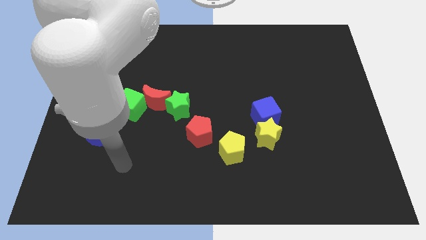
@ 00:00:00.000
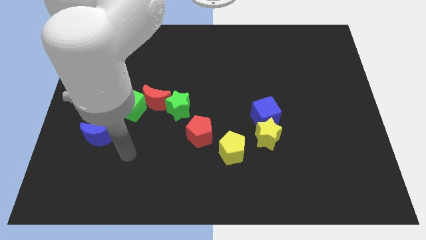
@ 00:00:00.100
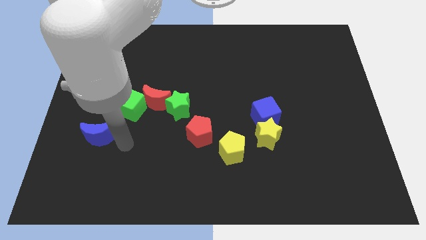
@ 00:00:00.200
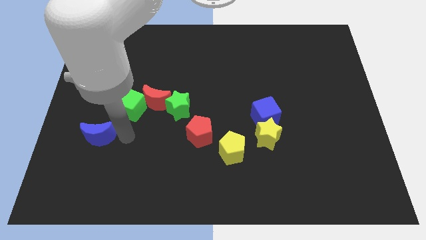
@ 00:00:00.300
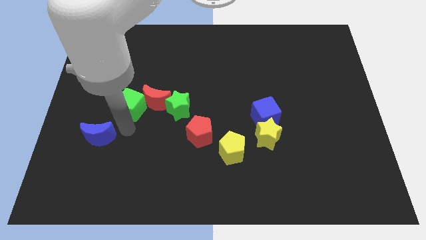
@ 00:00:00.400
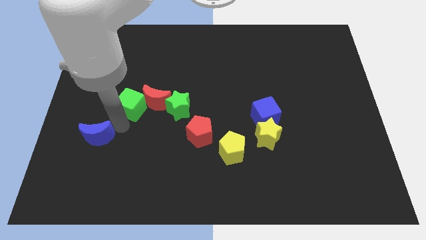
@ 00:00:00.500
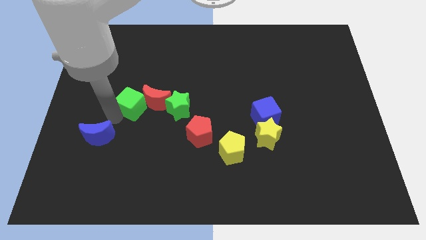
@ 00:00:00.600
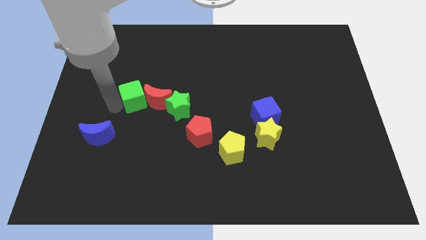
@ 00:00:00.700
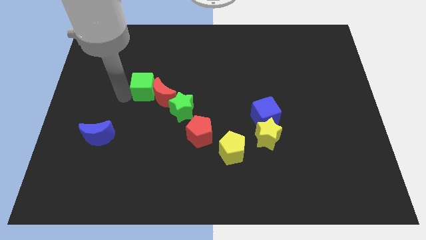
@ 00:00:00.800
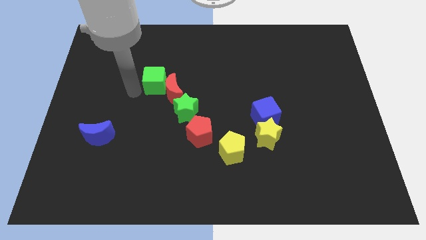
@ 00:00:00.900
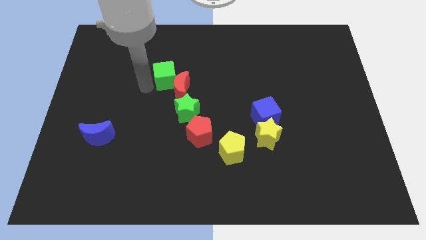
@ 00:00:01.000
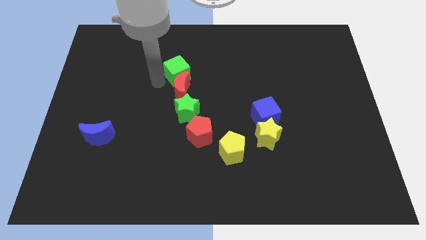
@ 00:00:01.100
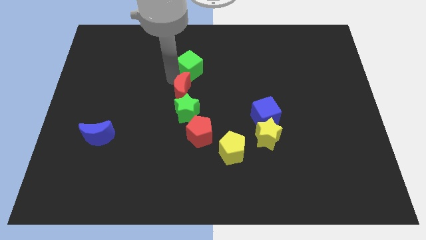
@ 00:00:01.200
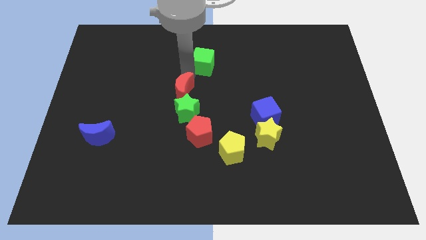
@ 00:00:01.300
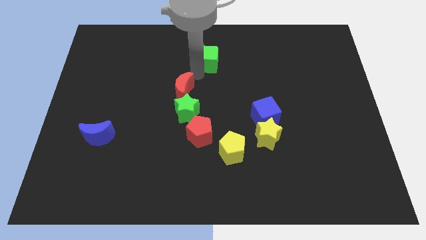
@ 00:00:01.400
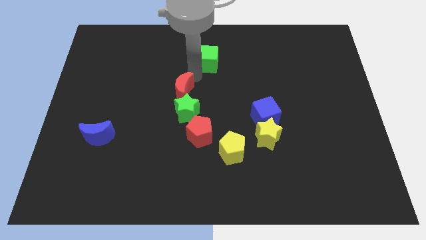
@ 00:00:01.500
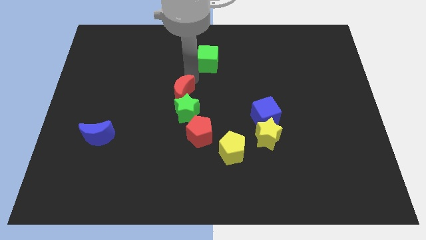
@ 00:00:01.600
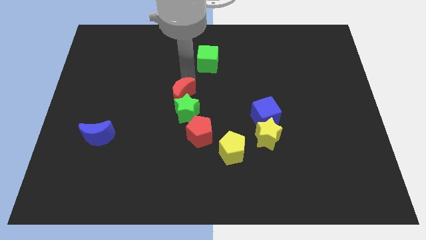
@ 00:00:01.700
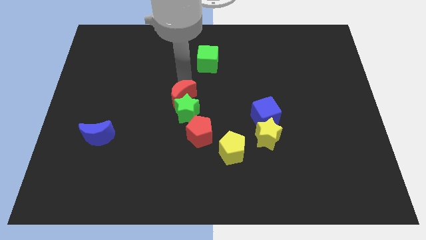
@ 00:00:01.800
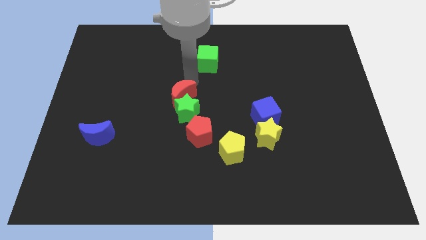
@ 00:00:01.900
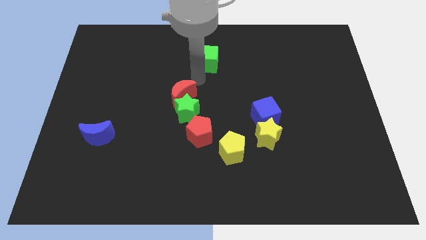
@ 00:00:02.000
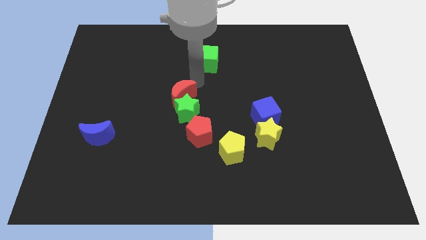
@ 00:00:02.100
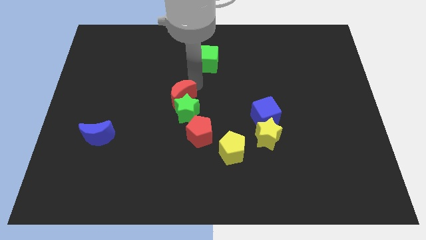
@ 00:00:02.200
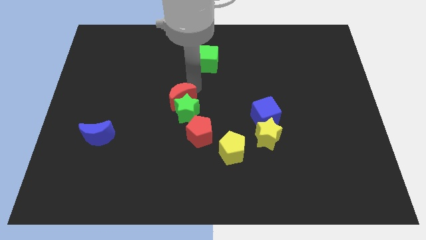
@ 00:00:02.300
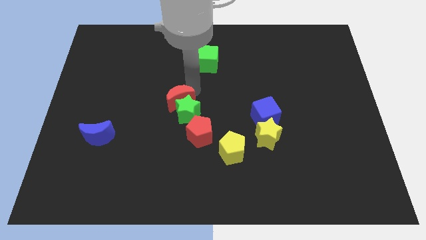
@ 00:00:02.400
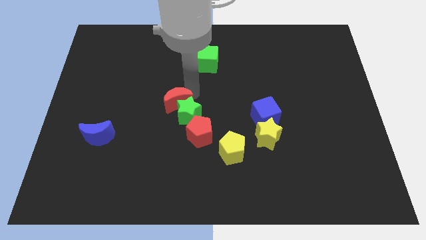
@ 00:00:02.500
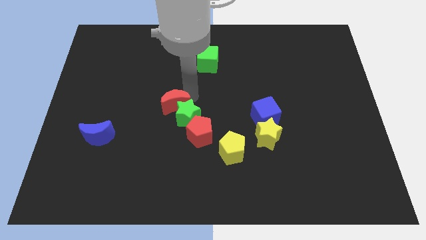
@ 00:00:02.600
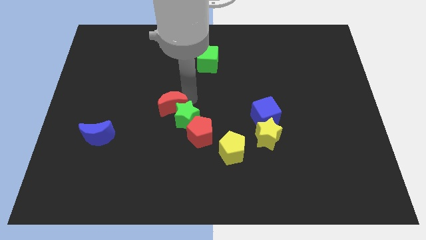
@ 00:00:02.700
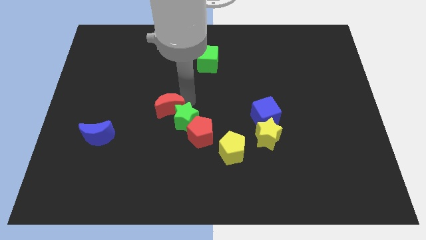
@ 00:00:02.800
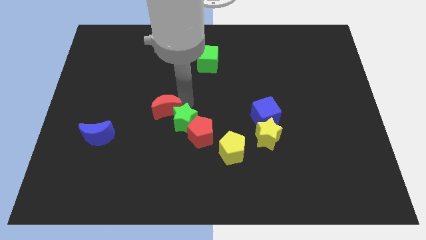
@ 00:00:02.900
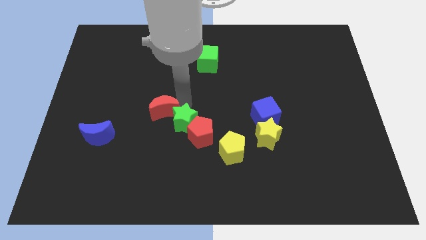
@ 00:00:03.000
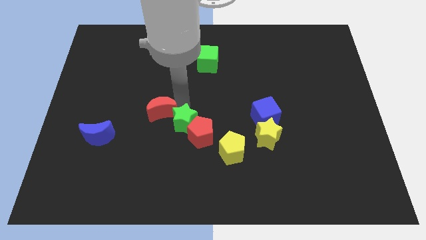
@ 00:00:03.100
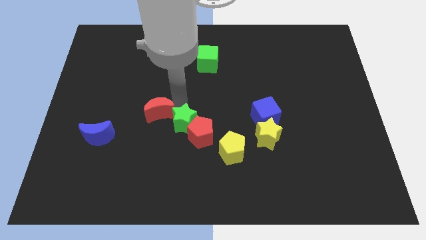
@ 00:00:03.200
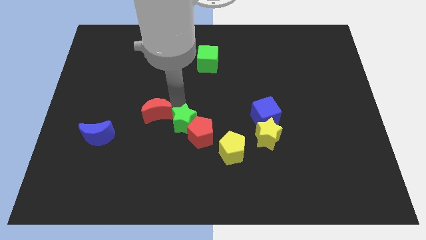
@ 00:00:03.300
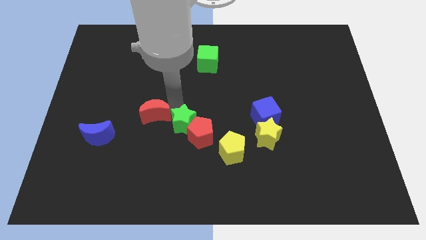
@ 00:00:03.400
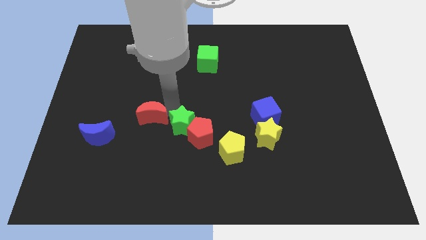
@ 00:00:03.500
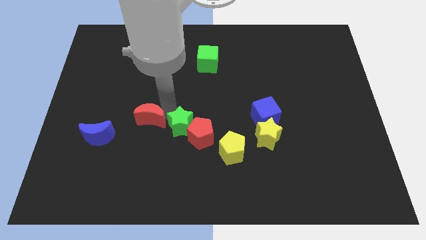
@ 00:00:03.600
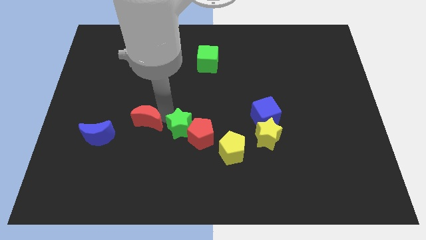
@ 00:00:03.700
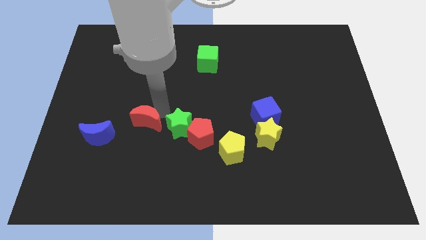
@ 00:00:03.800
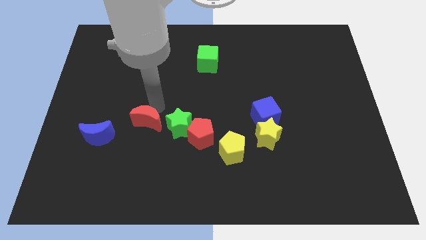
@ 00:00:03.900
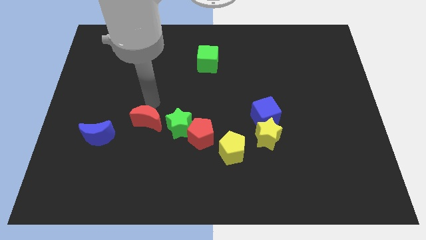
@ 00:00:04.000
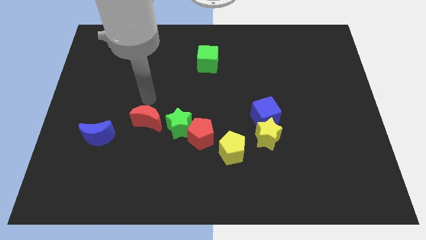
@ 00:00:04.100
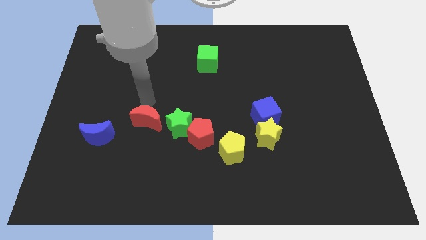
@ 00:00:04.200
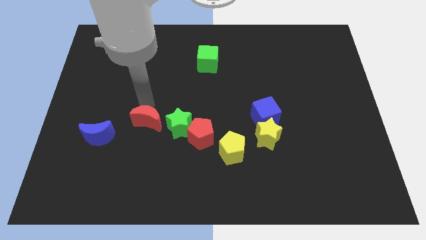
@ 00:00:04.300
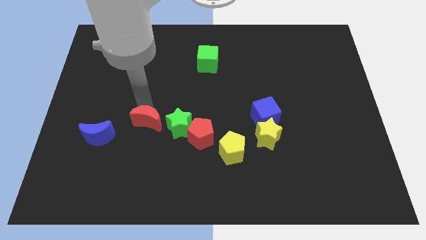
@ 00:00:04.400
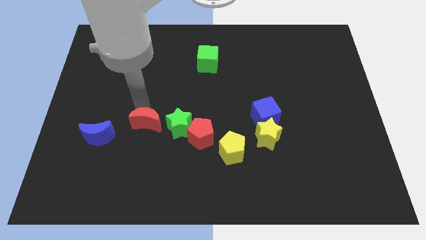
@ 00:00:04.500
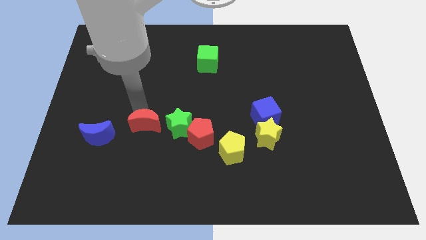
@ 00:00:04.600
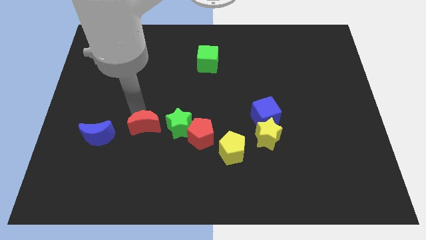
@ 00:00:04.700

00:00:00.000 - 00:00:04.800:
move the red moon down somewhat

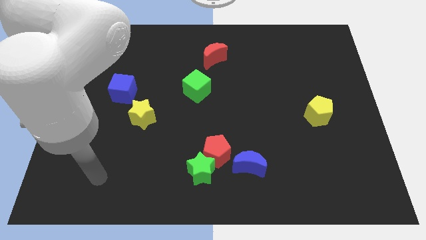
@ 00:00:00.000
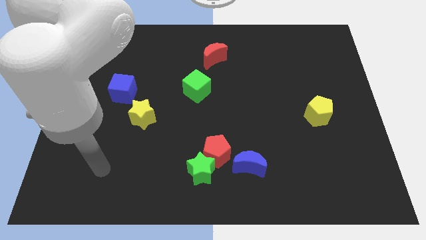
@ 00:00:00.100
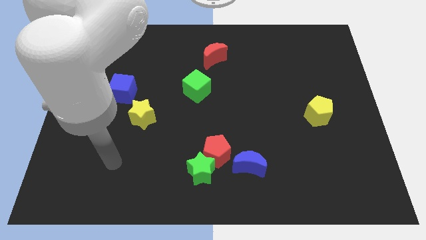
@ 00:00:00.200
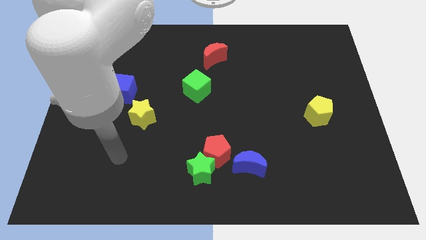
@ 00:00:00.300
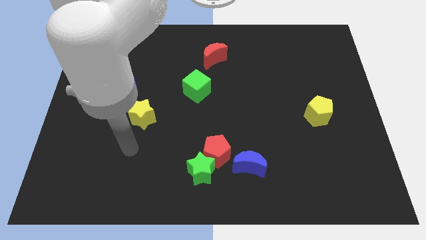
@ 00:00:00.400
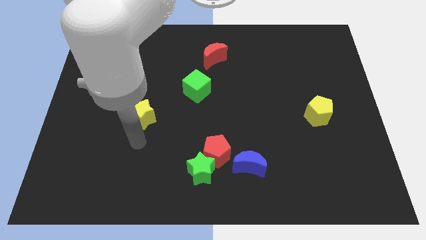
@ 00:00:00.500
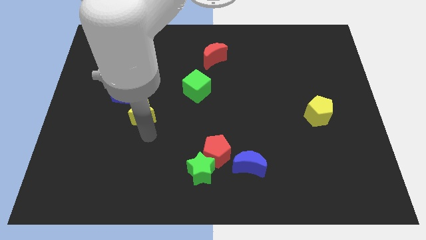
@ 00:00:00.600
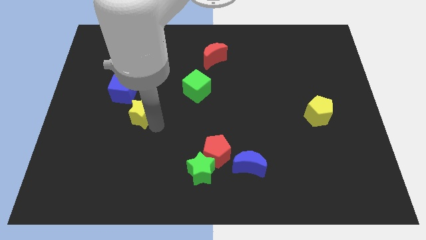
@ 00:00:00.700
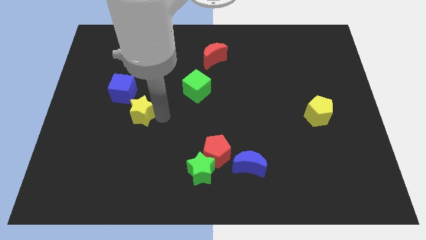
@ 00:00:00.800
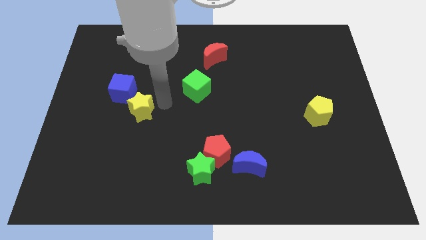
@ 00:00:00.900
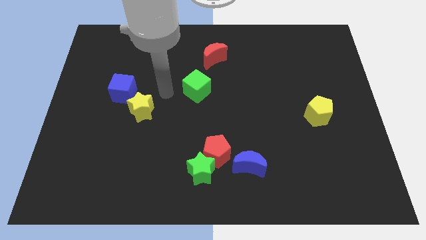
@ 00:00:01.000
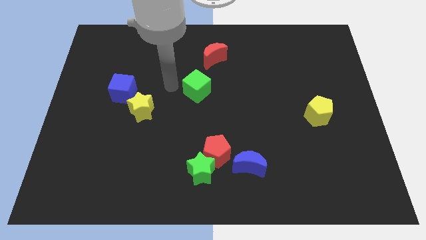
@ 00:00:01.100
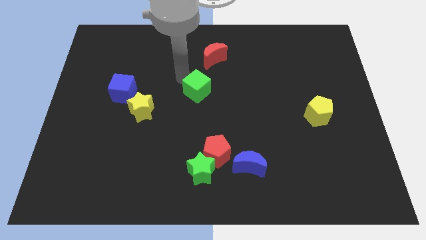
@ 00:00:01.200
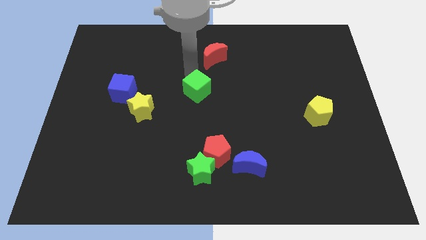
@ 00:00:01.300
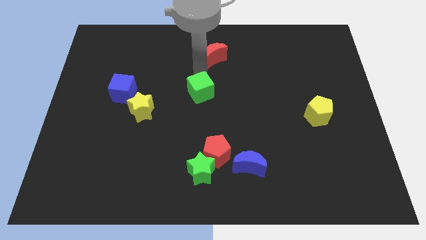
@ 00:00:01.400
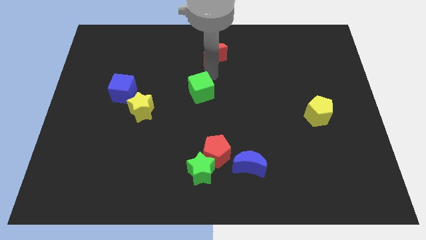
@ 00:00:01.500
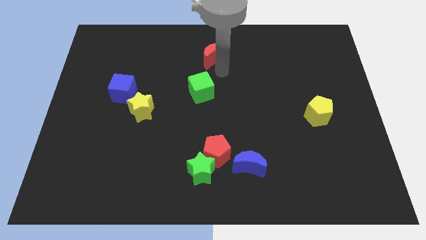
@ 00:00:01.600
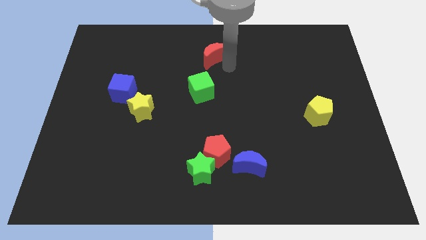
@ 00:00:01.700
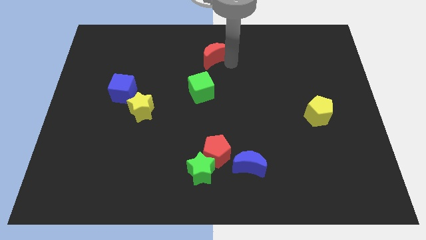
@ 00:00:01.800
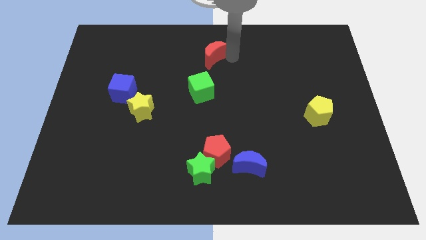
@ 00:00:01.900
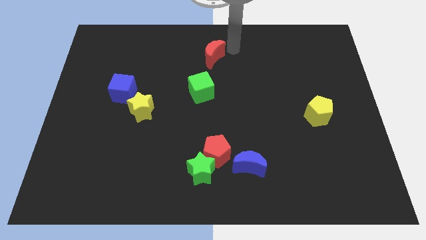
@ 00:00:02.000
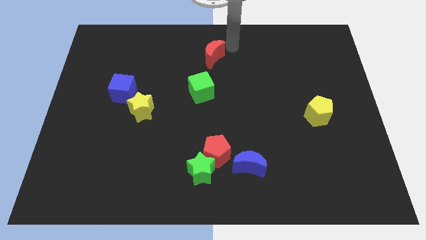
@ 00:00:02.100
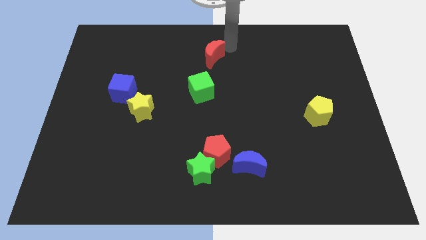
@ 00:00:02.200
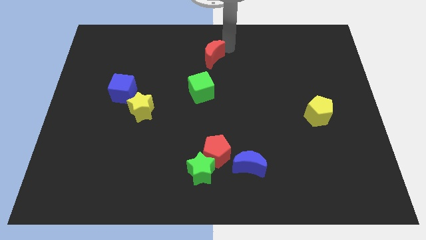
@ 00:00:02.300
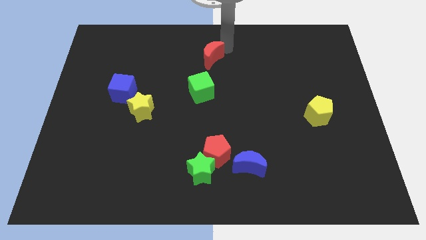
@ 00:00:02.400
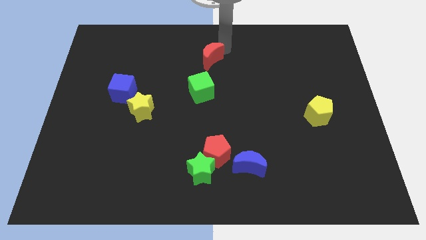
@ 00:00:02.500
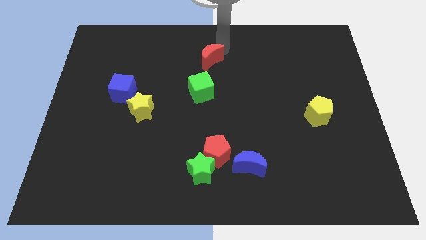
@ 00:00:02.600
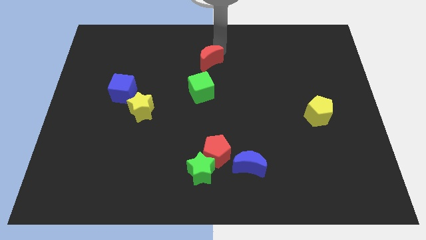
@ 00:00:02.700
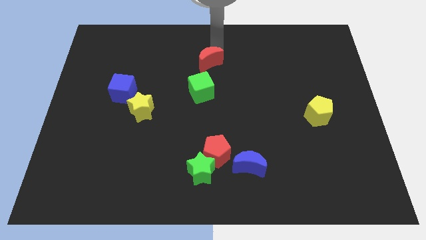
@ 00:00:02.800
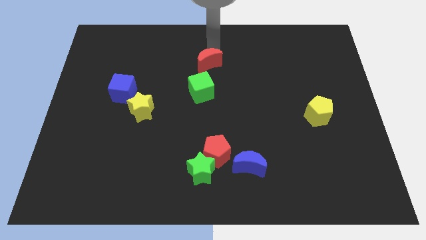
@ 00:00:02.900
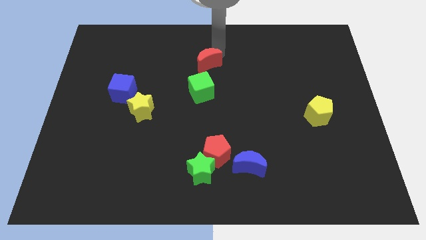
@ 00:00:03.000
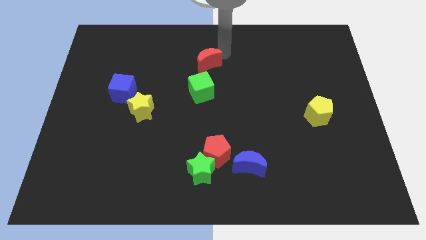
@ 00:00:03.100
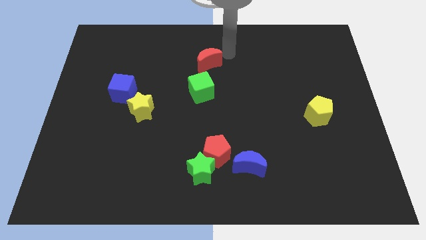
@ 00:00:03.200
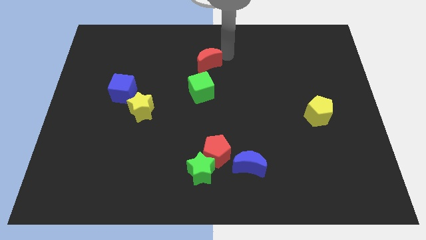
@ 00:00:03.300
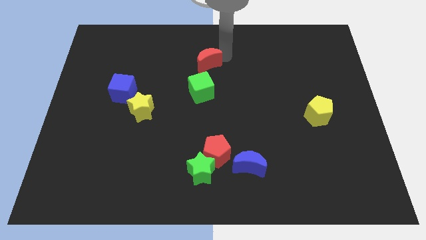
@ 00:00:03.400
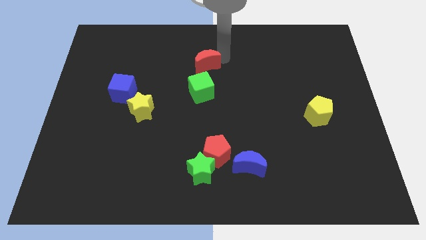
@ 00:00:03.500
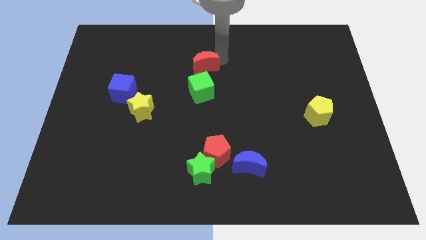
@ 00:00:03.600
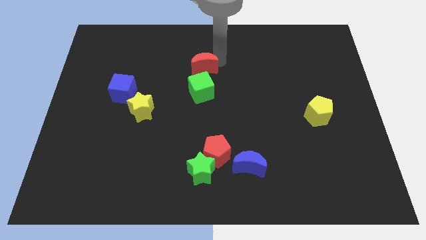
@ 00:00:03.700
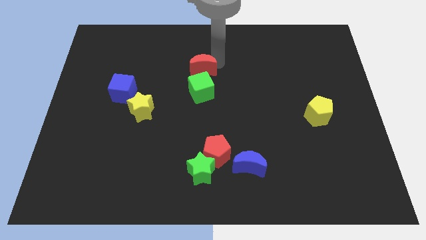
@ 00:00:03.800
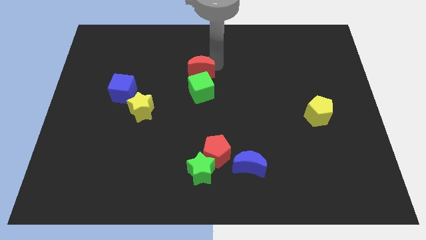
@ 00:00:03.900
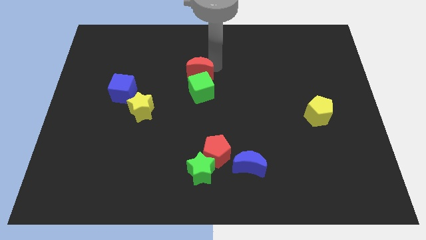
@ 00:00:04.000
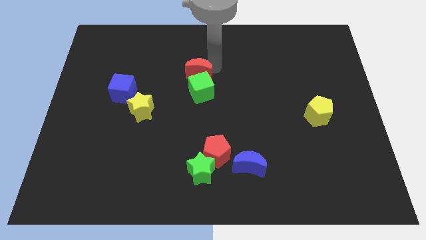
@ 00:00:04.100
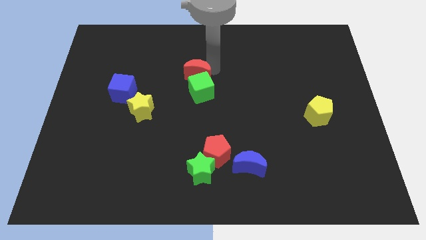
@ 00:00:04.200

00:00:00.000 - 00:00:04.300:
move the red moon downwards and left a bit
